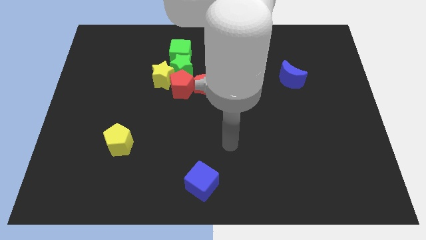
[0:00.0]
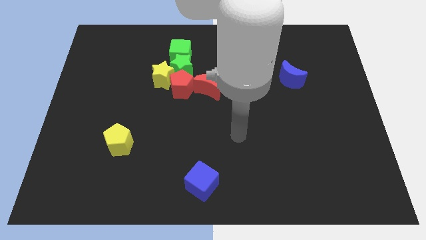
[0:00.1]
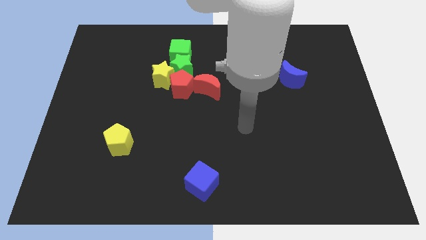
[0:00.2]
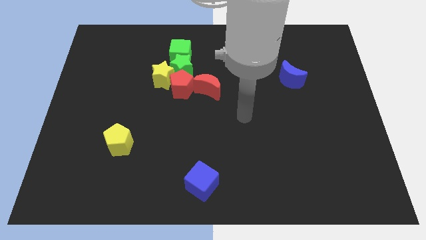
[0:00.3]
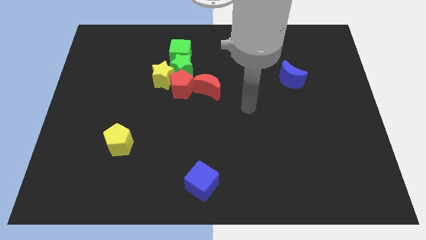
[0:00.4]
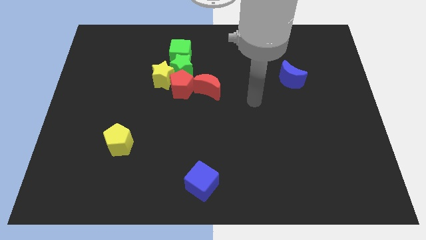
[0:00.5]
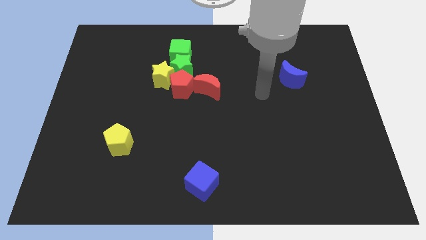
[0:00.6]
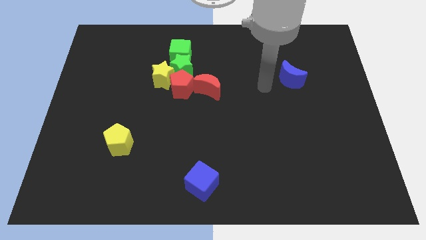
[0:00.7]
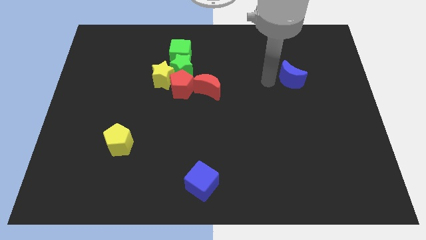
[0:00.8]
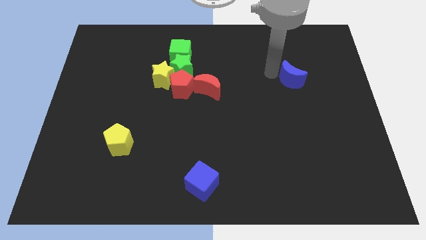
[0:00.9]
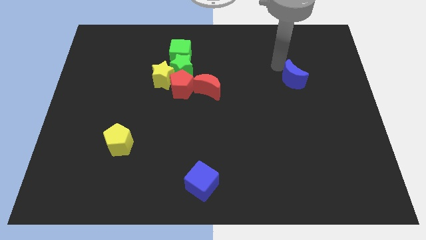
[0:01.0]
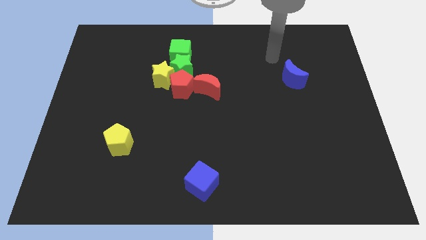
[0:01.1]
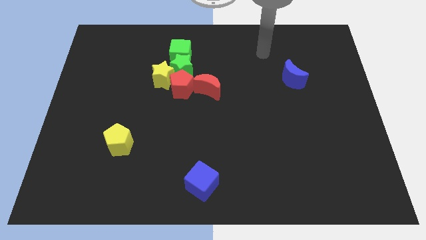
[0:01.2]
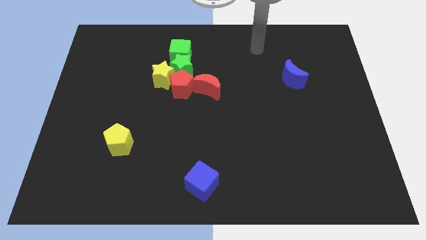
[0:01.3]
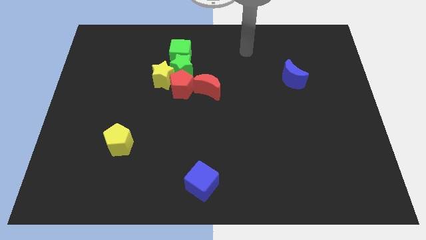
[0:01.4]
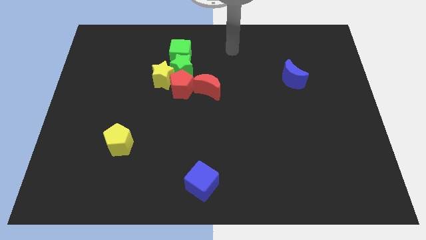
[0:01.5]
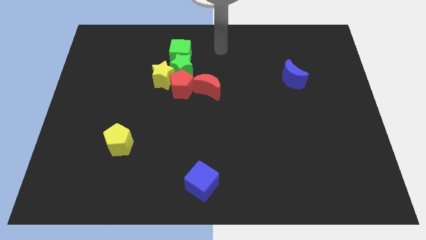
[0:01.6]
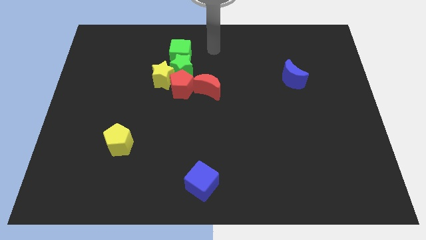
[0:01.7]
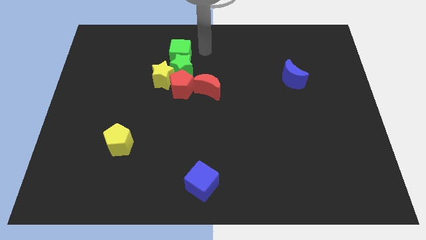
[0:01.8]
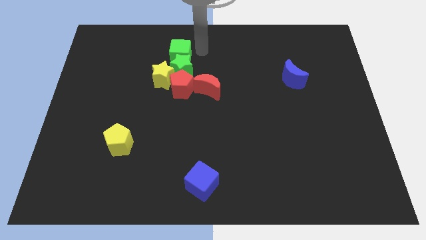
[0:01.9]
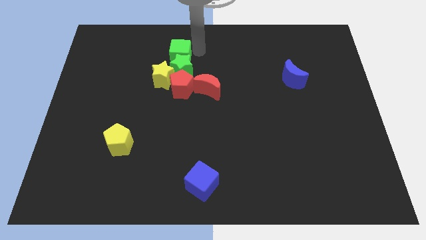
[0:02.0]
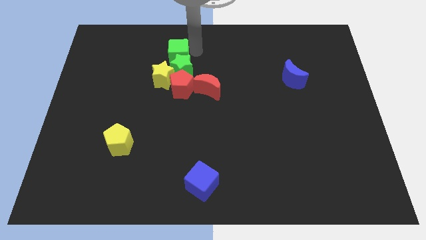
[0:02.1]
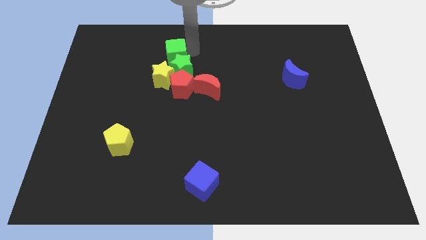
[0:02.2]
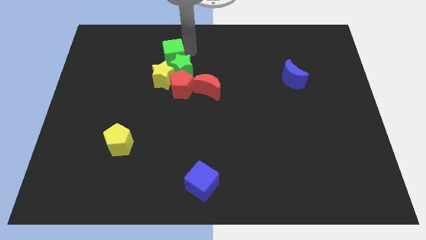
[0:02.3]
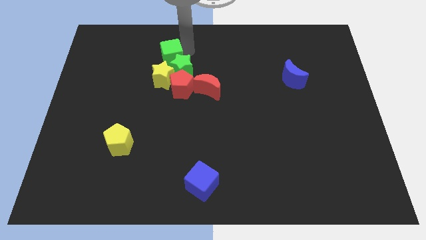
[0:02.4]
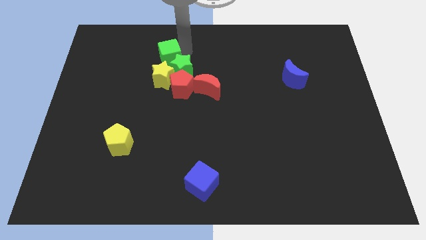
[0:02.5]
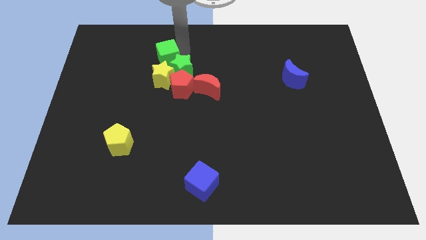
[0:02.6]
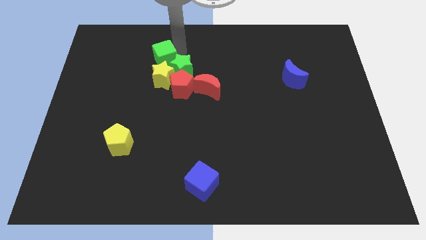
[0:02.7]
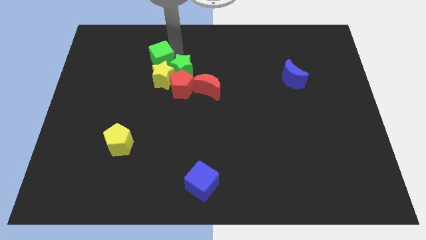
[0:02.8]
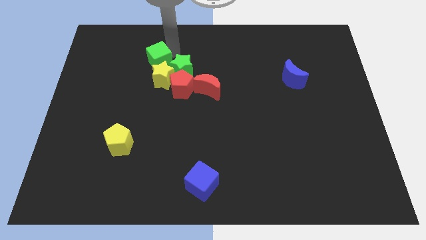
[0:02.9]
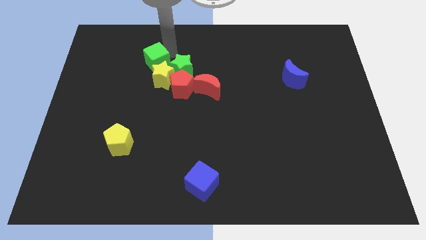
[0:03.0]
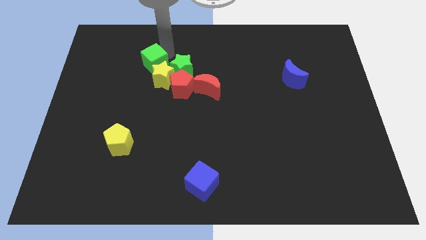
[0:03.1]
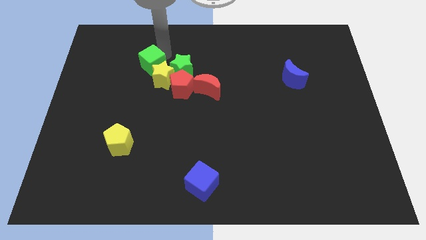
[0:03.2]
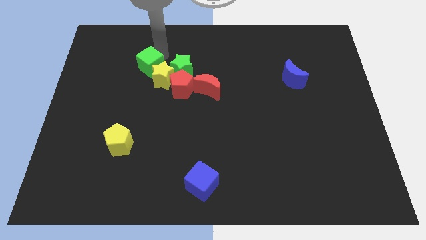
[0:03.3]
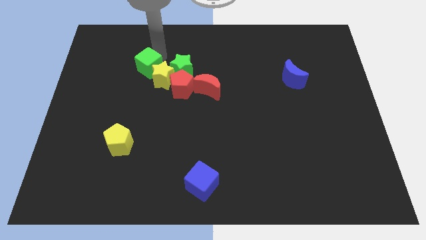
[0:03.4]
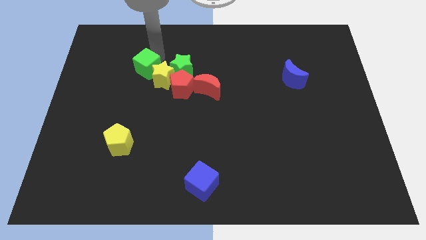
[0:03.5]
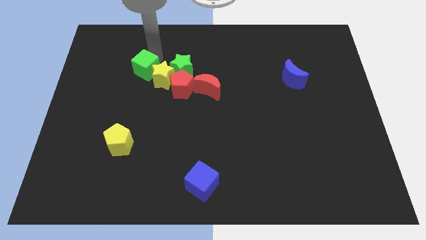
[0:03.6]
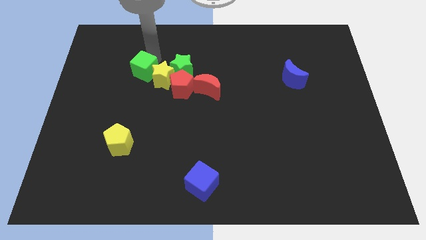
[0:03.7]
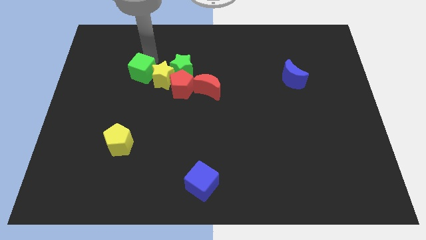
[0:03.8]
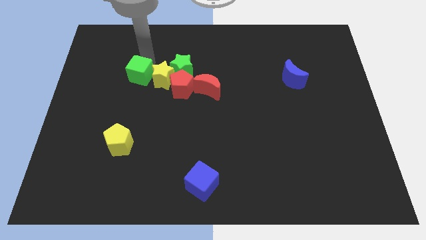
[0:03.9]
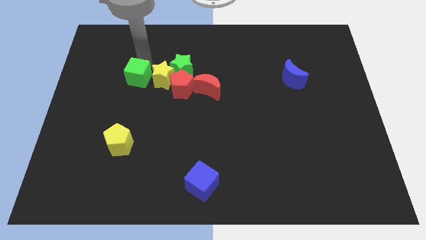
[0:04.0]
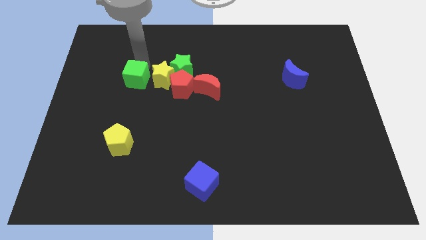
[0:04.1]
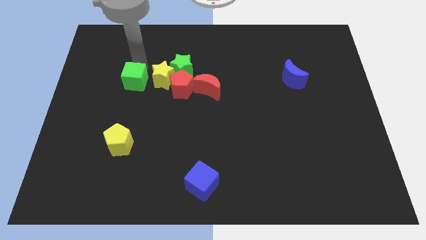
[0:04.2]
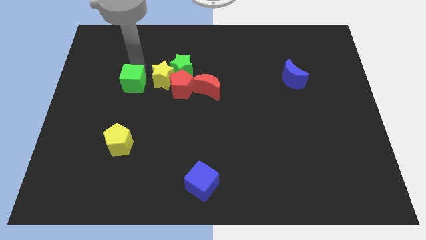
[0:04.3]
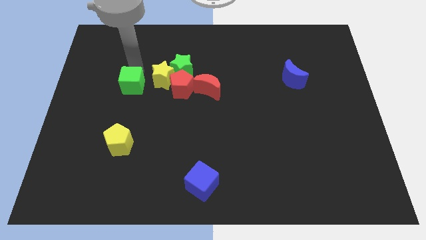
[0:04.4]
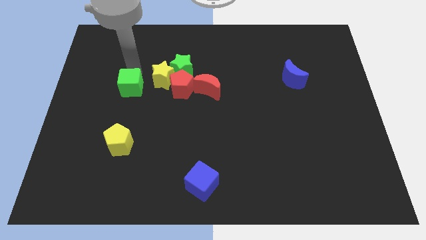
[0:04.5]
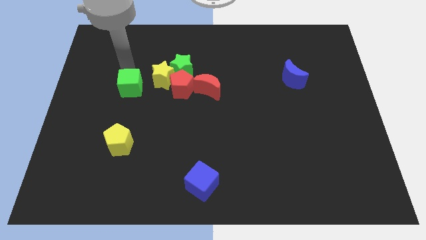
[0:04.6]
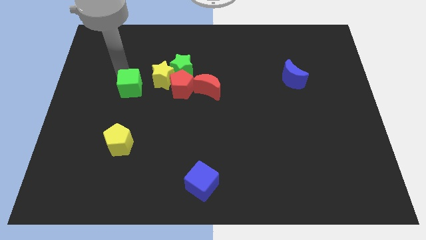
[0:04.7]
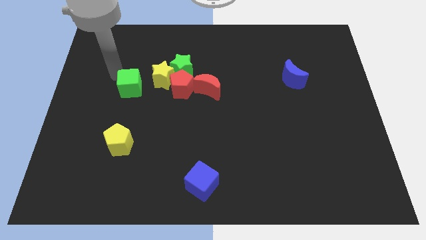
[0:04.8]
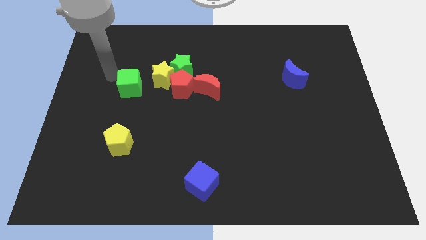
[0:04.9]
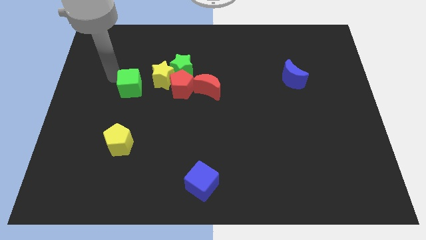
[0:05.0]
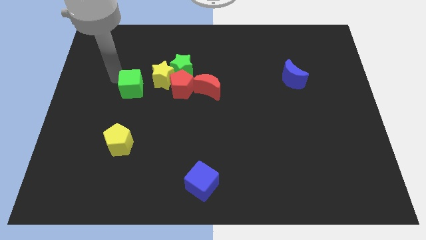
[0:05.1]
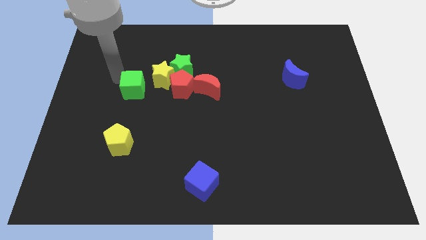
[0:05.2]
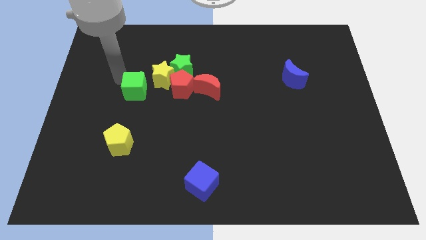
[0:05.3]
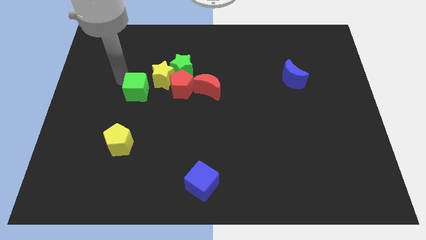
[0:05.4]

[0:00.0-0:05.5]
move the green cube down slightly

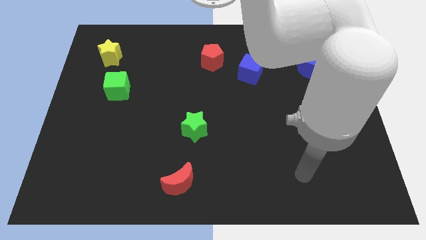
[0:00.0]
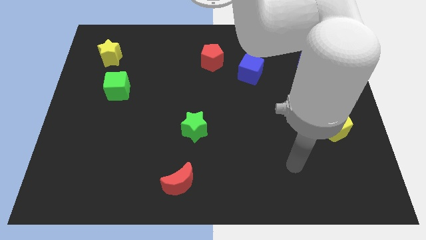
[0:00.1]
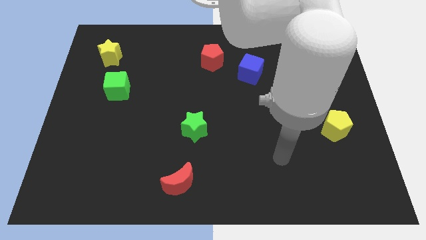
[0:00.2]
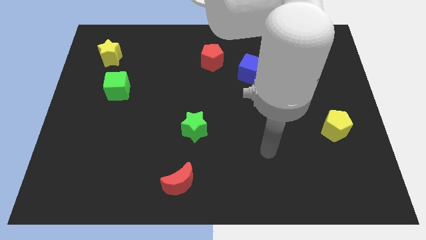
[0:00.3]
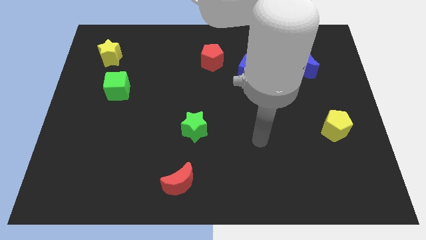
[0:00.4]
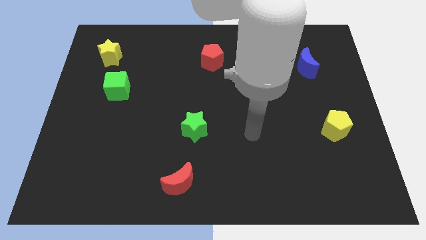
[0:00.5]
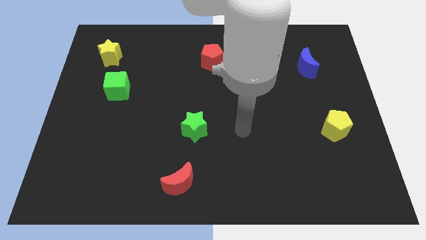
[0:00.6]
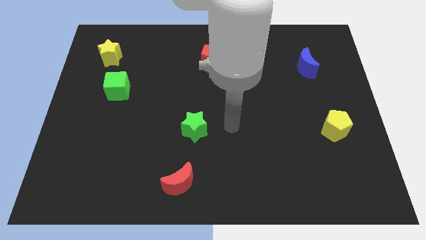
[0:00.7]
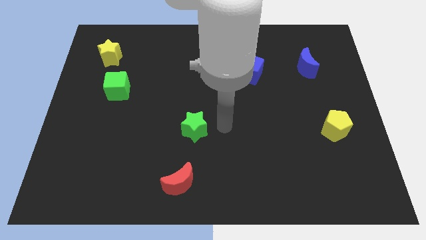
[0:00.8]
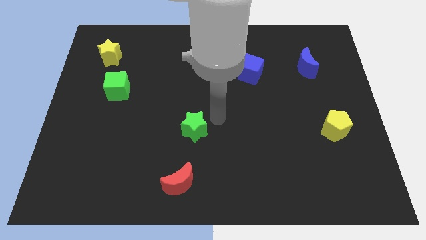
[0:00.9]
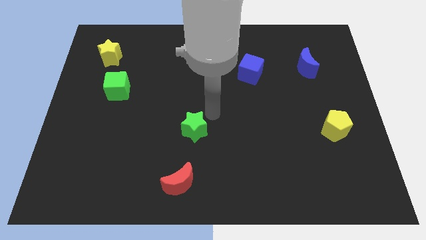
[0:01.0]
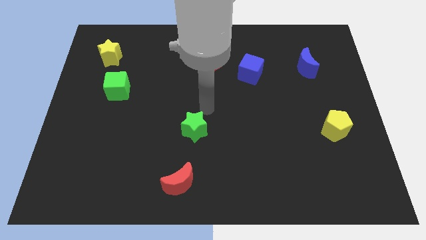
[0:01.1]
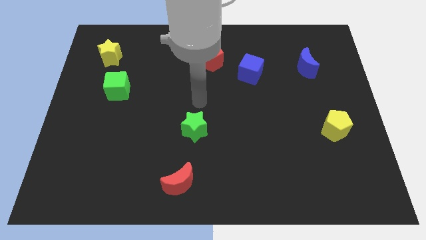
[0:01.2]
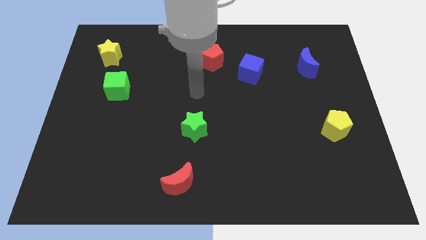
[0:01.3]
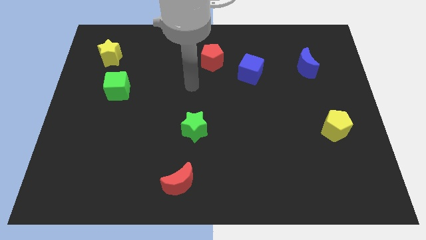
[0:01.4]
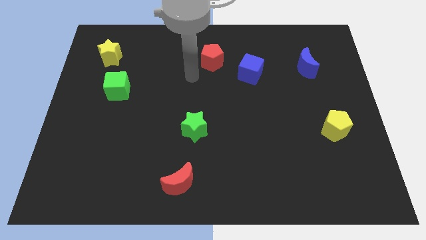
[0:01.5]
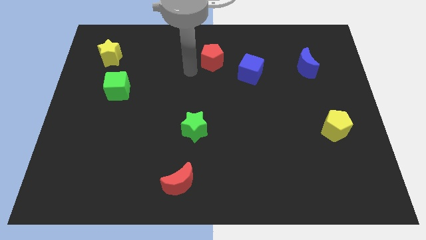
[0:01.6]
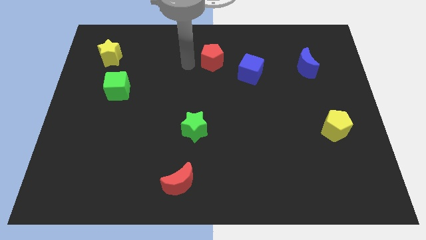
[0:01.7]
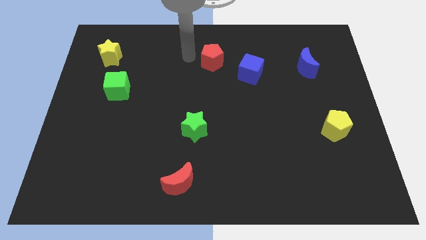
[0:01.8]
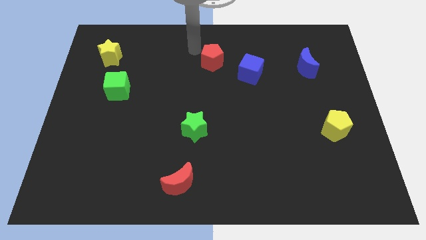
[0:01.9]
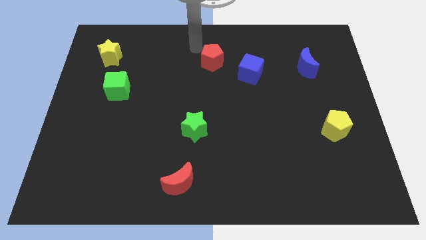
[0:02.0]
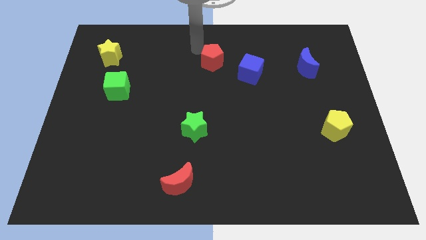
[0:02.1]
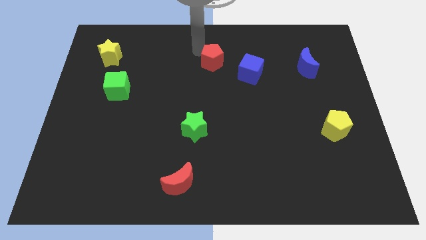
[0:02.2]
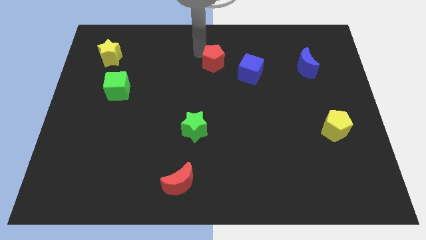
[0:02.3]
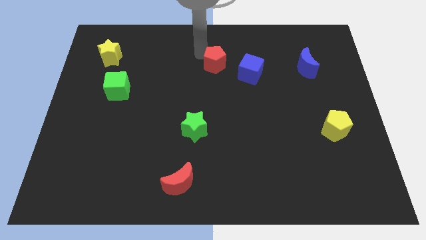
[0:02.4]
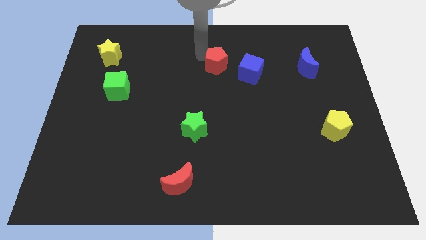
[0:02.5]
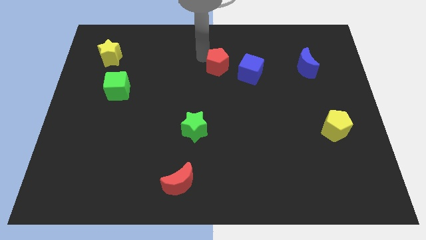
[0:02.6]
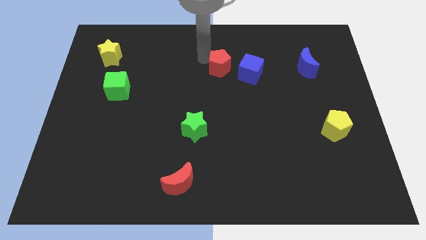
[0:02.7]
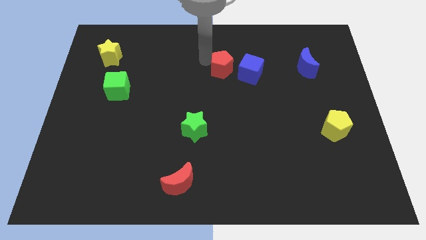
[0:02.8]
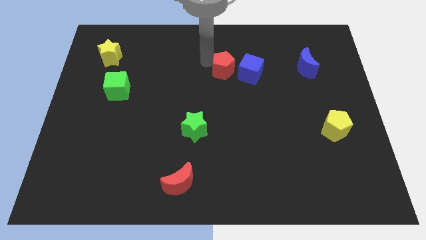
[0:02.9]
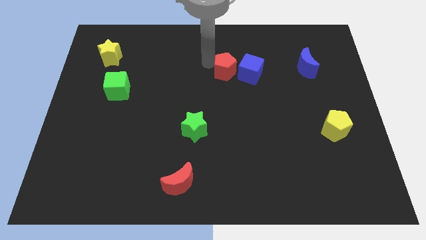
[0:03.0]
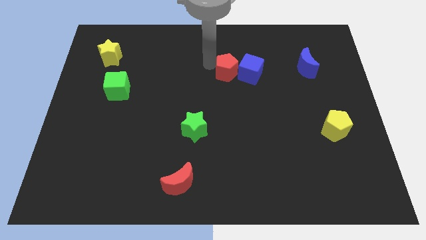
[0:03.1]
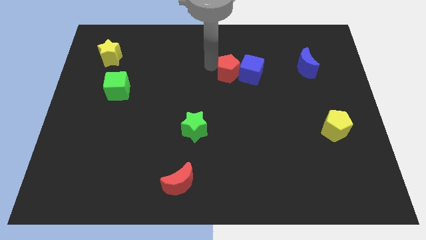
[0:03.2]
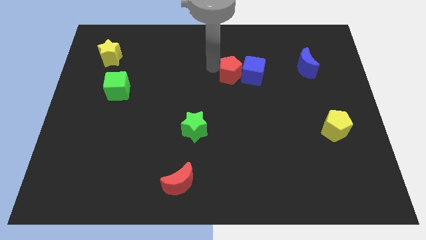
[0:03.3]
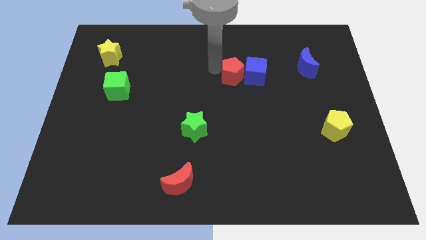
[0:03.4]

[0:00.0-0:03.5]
push the red pentagon diagonally down and right a little bit
